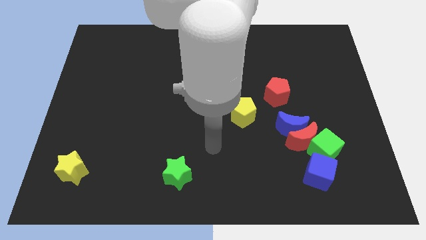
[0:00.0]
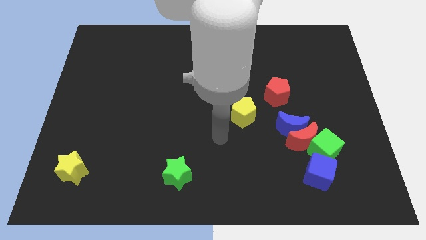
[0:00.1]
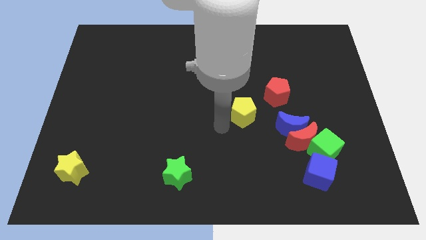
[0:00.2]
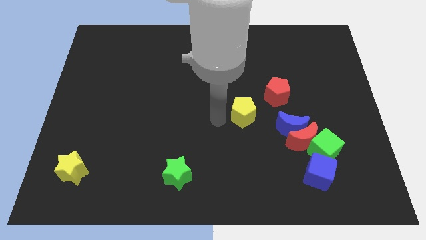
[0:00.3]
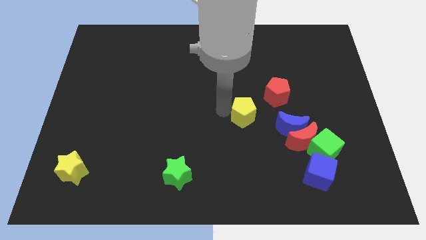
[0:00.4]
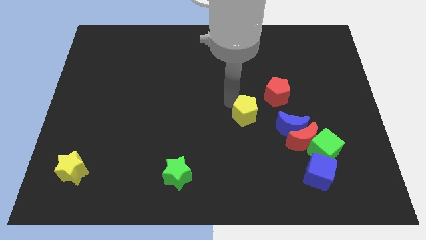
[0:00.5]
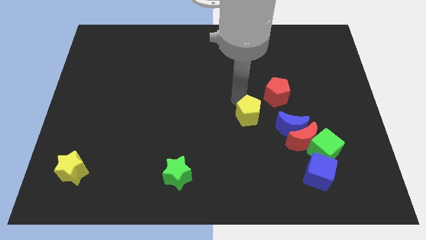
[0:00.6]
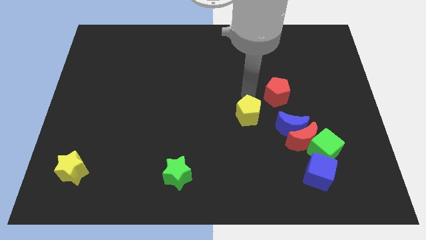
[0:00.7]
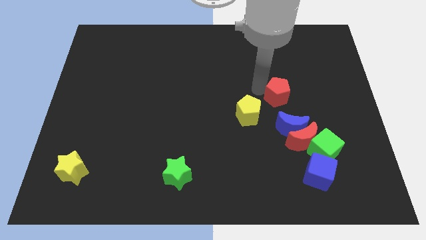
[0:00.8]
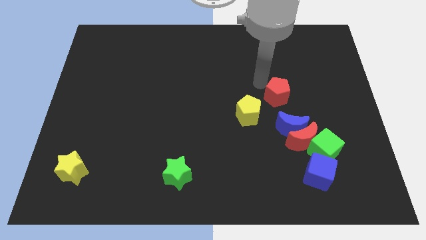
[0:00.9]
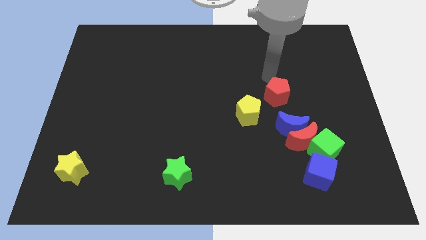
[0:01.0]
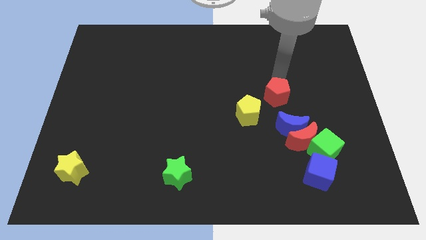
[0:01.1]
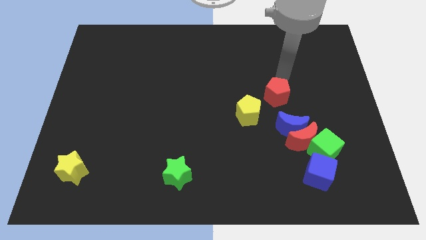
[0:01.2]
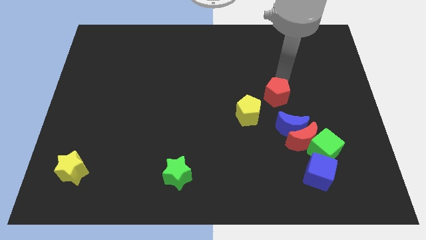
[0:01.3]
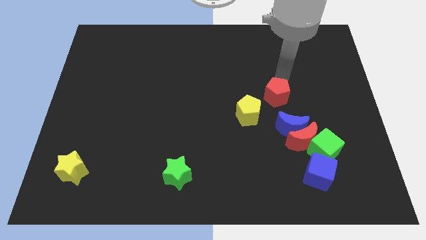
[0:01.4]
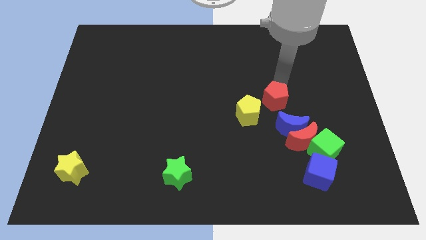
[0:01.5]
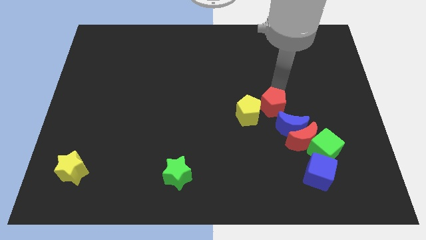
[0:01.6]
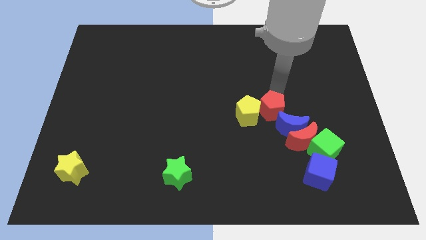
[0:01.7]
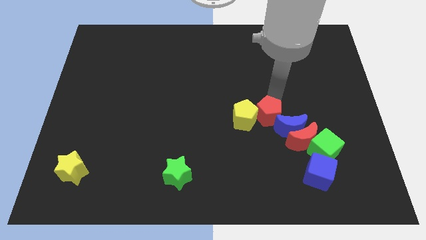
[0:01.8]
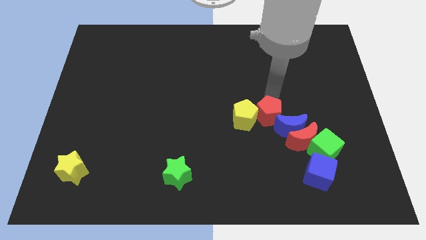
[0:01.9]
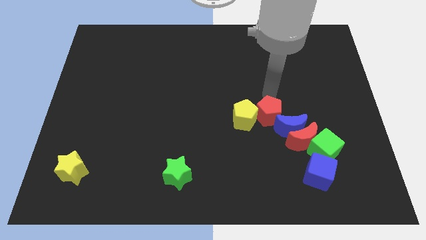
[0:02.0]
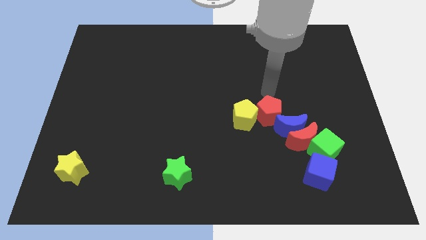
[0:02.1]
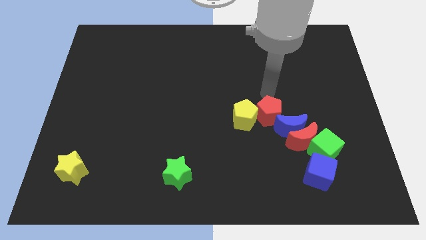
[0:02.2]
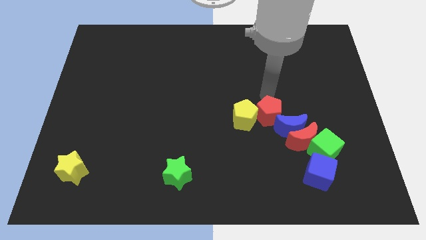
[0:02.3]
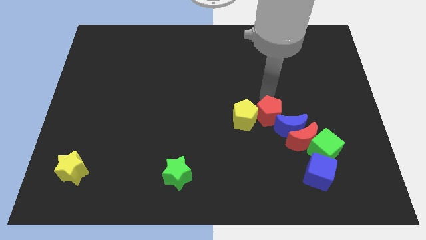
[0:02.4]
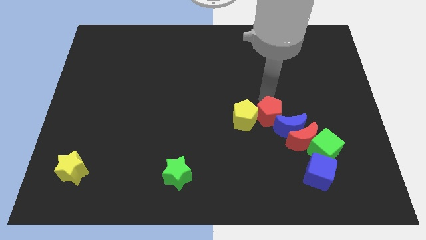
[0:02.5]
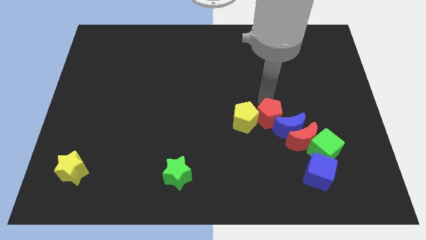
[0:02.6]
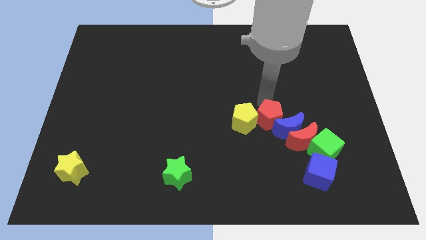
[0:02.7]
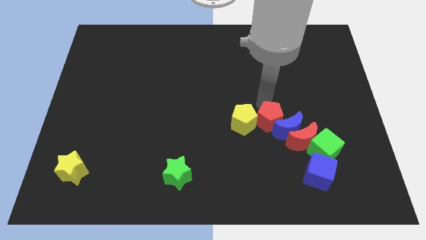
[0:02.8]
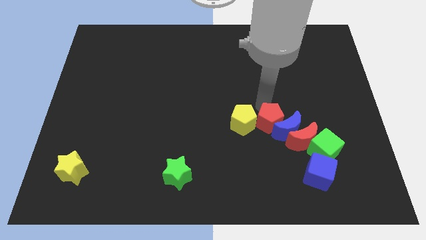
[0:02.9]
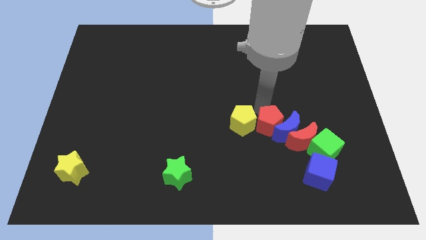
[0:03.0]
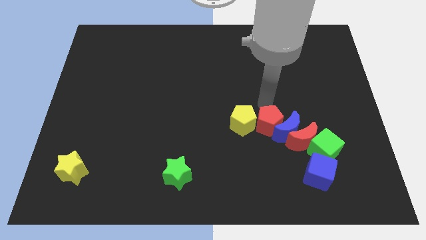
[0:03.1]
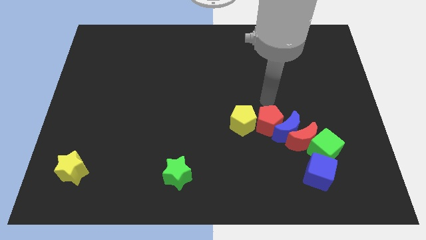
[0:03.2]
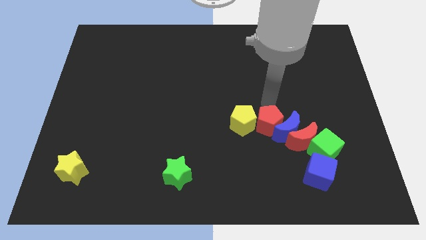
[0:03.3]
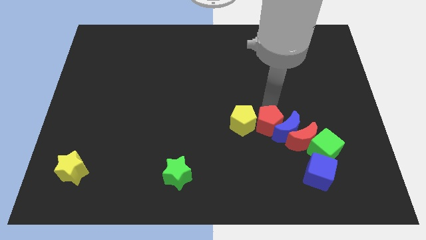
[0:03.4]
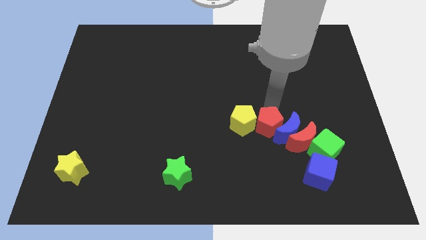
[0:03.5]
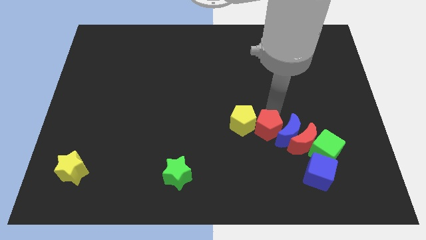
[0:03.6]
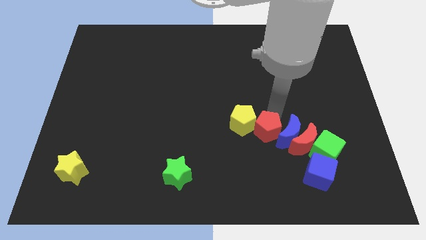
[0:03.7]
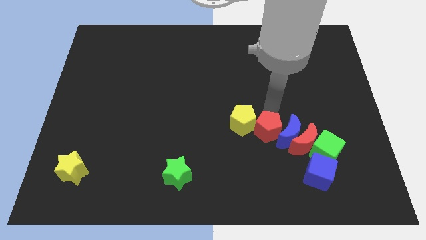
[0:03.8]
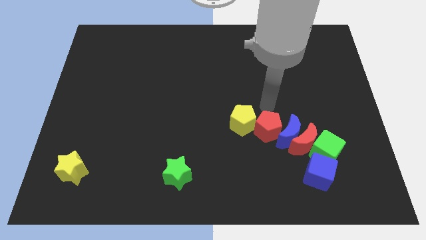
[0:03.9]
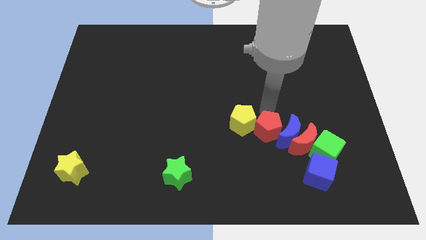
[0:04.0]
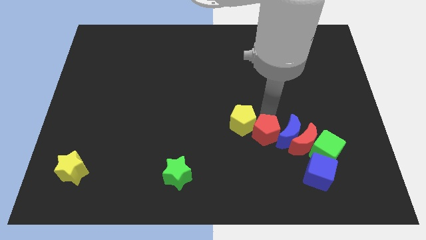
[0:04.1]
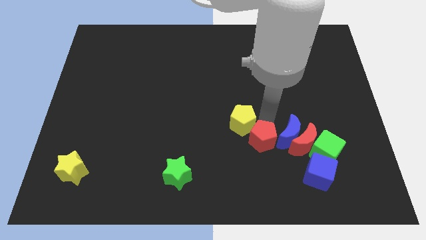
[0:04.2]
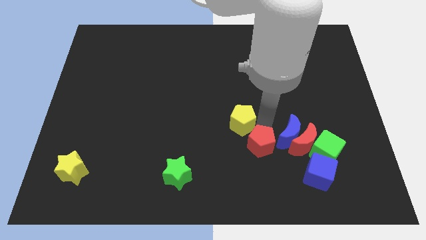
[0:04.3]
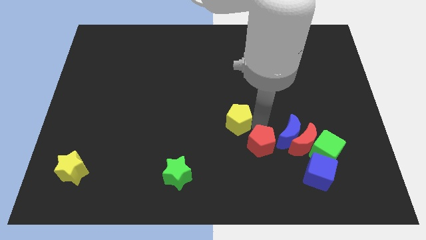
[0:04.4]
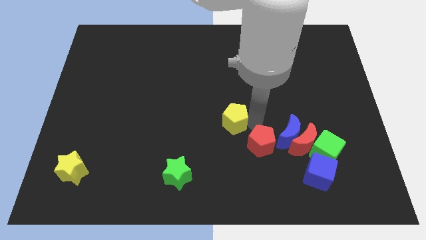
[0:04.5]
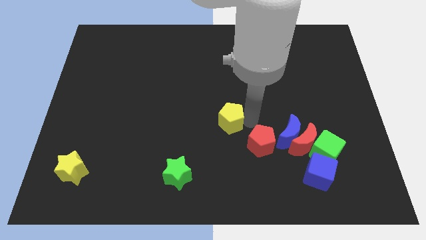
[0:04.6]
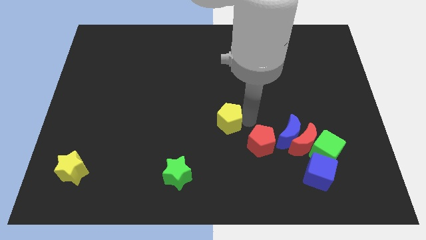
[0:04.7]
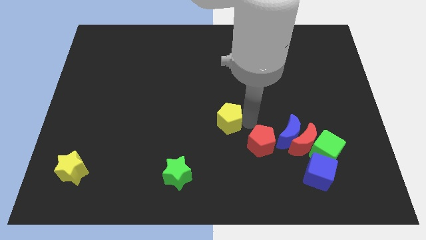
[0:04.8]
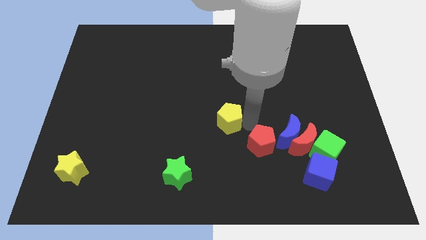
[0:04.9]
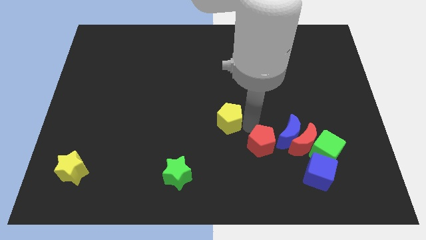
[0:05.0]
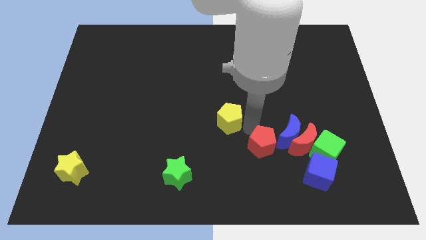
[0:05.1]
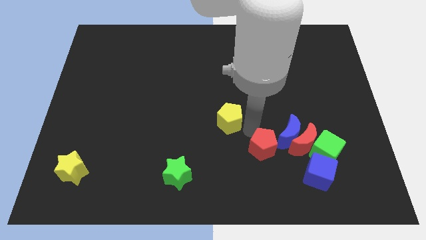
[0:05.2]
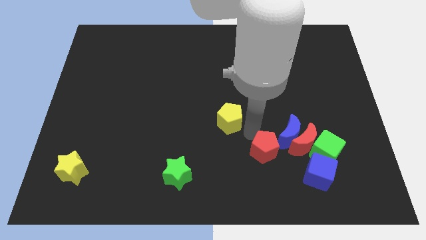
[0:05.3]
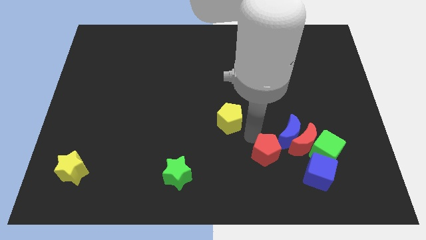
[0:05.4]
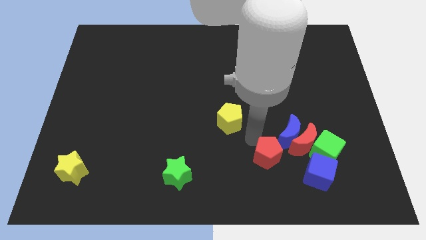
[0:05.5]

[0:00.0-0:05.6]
put the red pentagon to the left of the blue cube

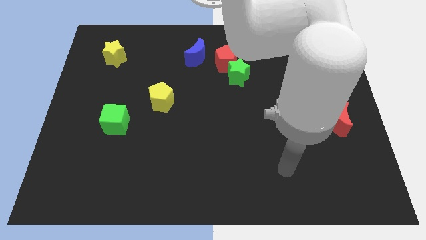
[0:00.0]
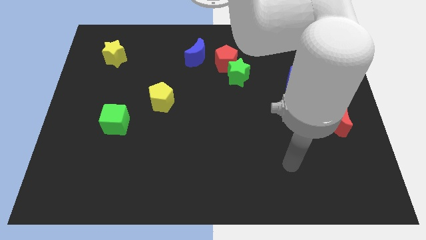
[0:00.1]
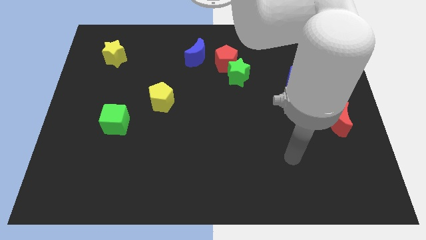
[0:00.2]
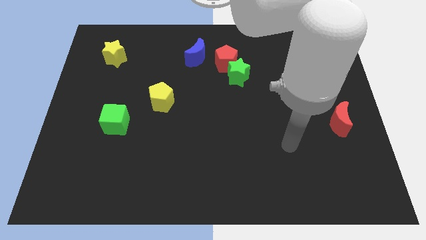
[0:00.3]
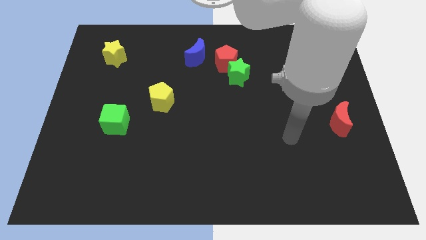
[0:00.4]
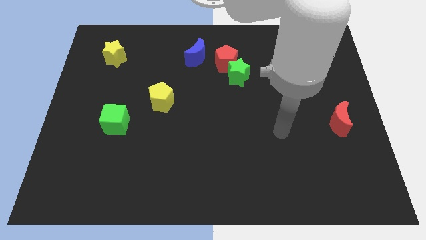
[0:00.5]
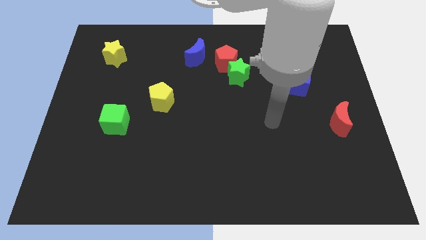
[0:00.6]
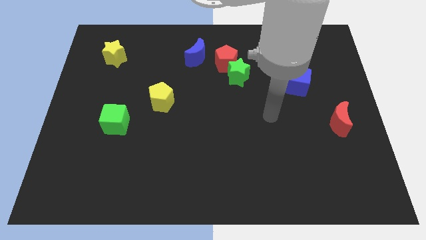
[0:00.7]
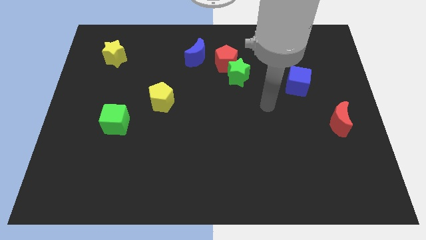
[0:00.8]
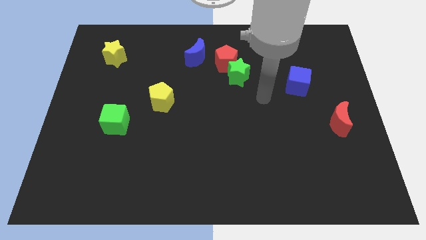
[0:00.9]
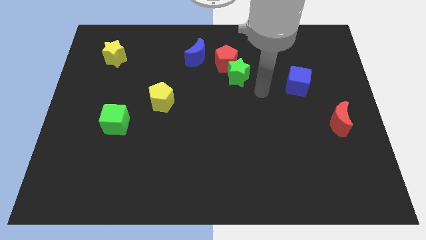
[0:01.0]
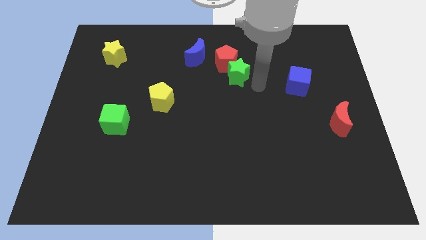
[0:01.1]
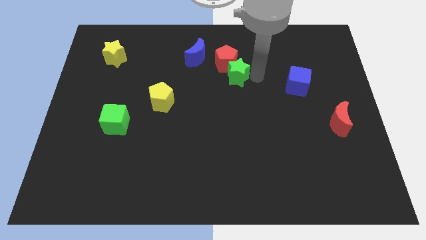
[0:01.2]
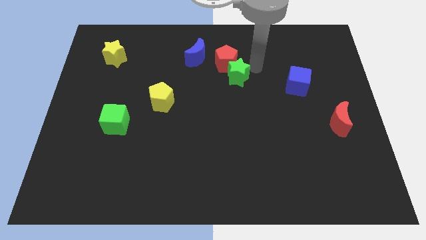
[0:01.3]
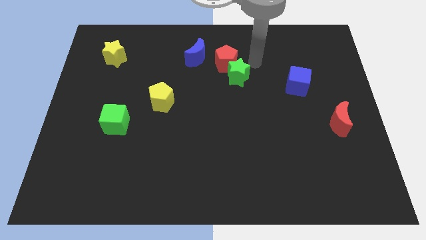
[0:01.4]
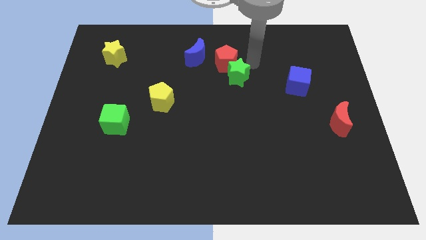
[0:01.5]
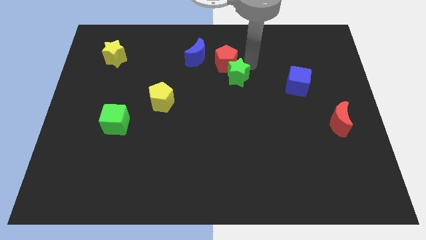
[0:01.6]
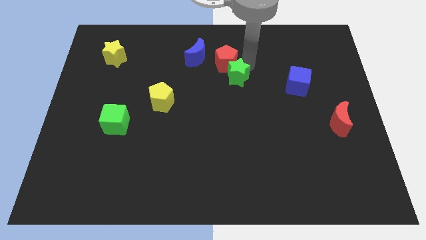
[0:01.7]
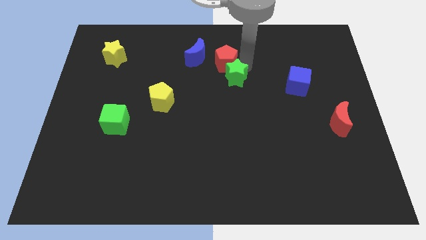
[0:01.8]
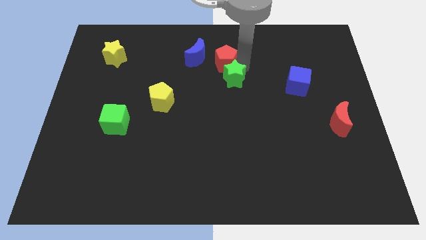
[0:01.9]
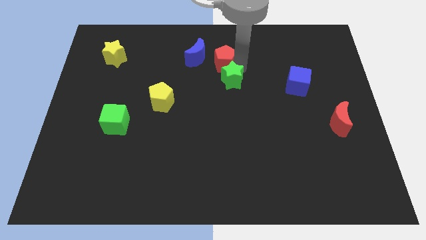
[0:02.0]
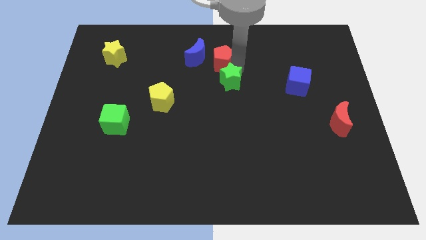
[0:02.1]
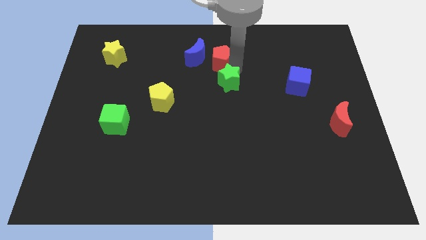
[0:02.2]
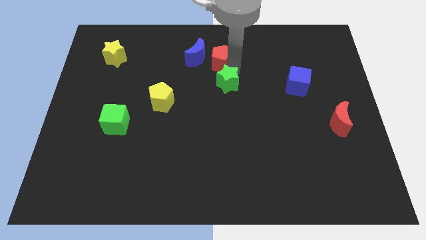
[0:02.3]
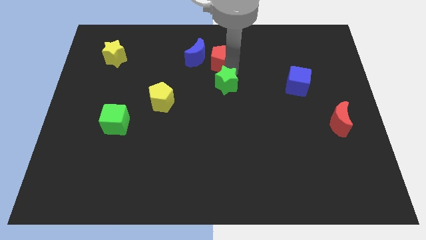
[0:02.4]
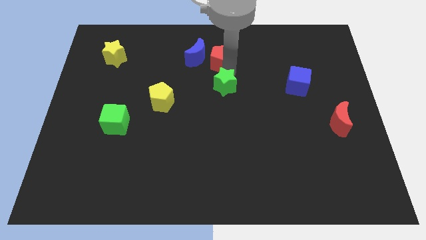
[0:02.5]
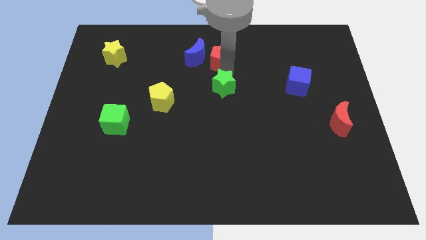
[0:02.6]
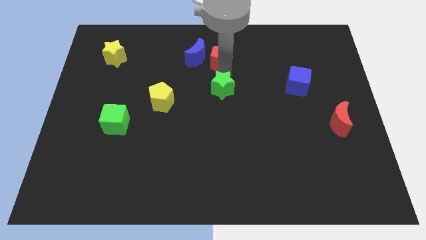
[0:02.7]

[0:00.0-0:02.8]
move the green star to the right side of the yellow pentagon
